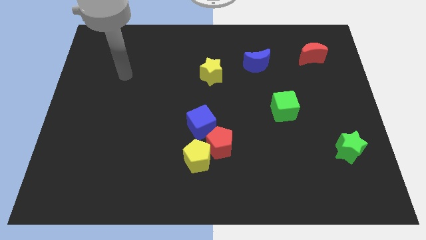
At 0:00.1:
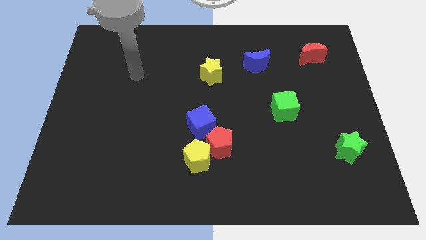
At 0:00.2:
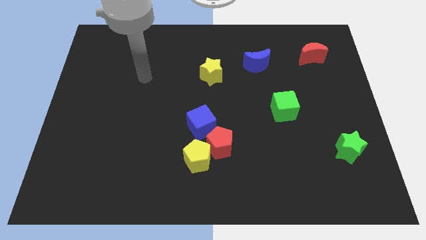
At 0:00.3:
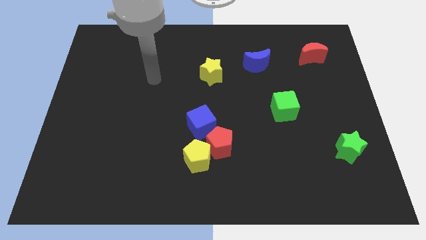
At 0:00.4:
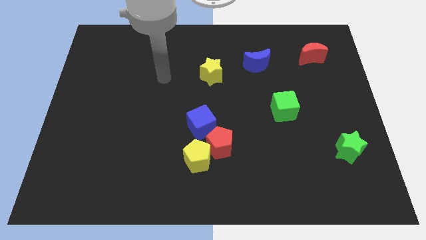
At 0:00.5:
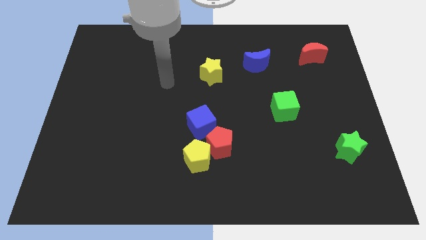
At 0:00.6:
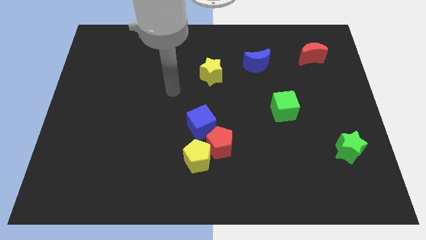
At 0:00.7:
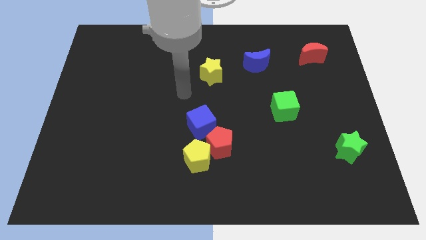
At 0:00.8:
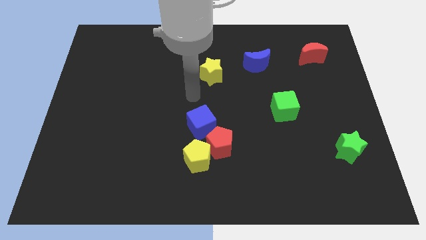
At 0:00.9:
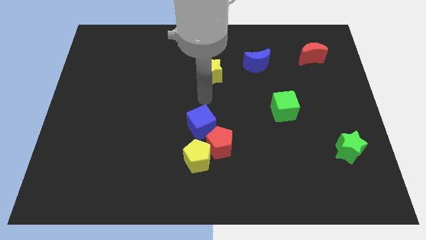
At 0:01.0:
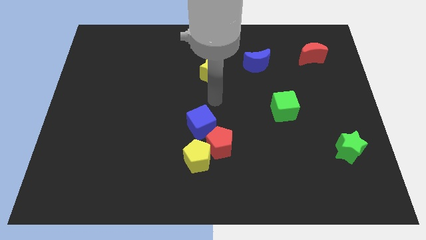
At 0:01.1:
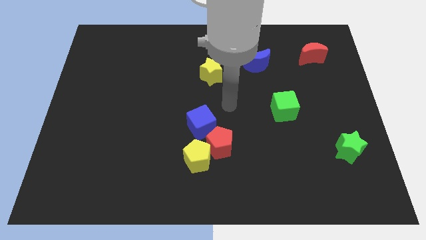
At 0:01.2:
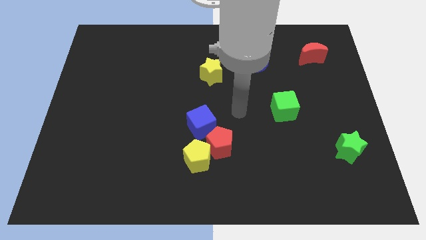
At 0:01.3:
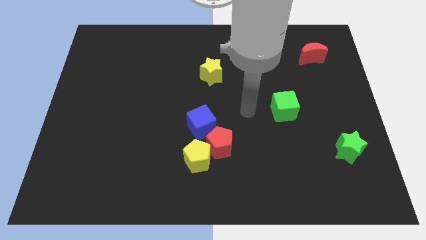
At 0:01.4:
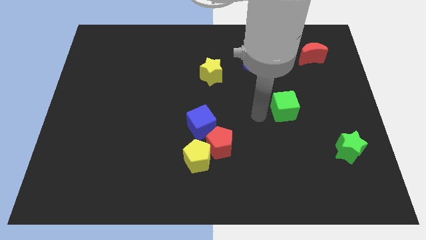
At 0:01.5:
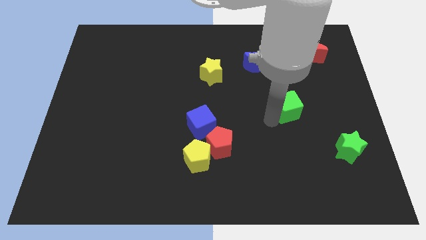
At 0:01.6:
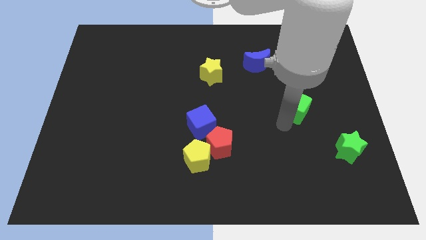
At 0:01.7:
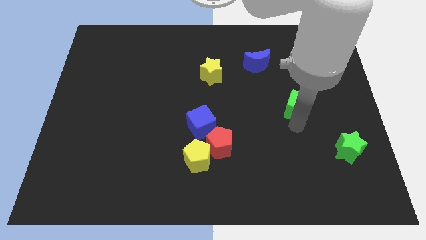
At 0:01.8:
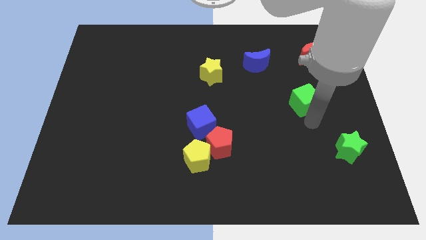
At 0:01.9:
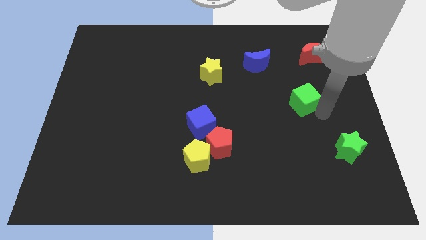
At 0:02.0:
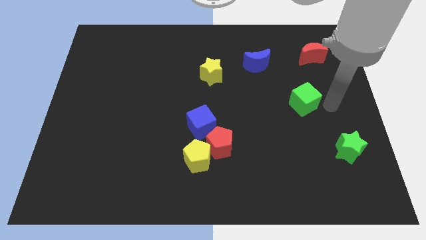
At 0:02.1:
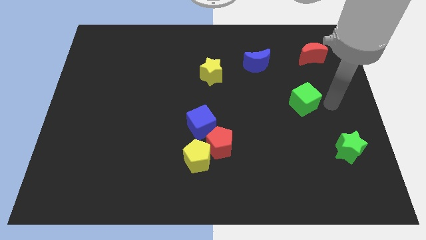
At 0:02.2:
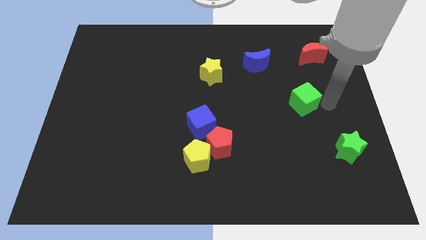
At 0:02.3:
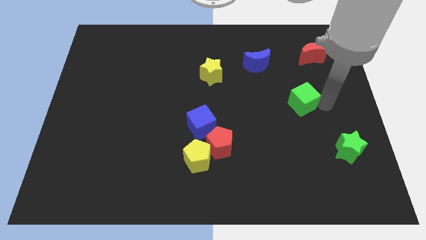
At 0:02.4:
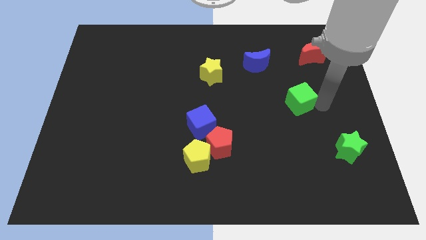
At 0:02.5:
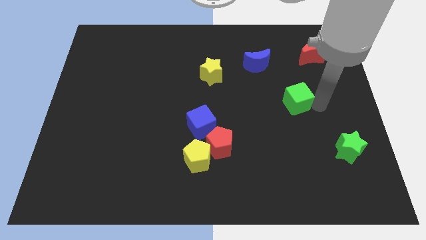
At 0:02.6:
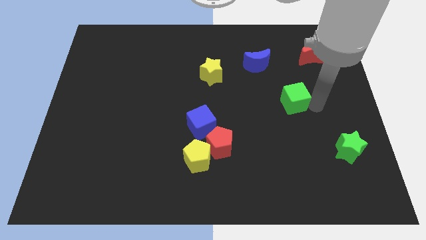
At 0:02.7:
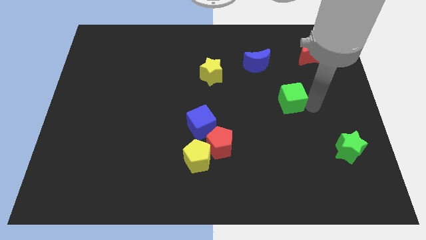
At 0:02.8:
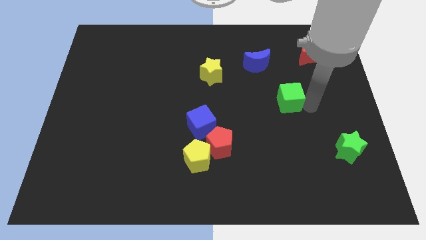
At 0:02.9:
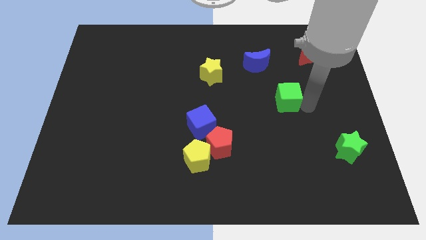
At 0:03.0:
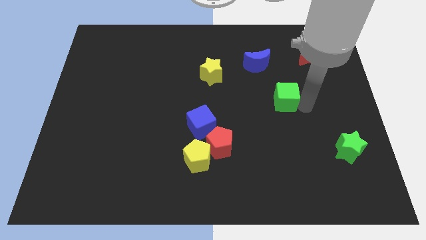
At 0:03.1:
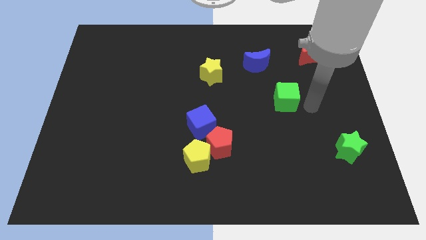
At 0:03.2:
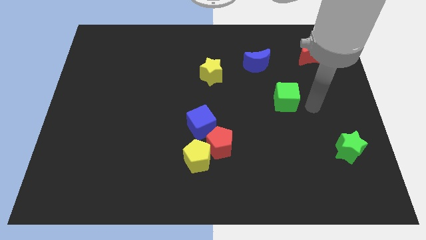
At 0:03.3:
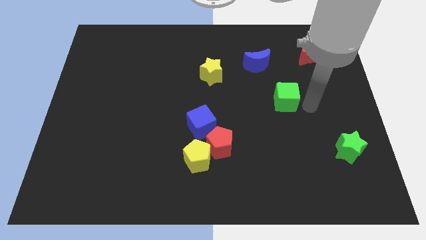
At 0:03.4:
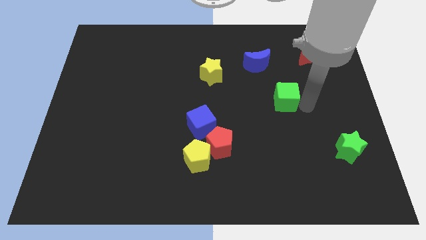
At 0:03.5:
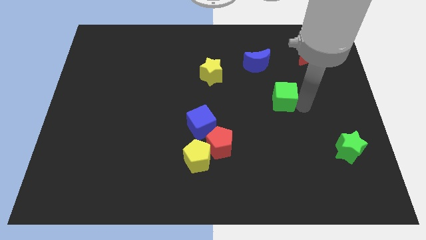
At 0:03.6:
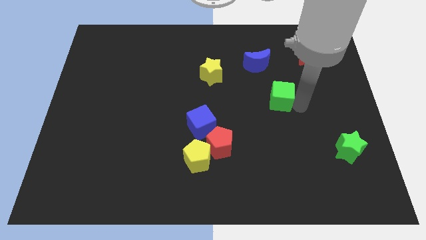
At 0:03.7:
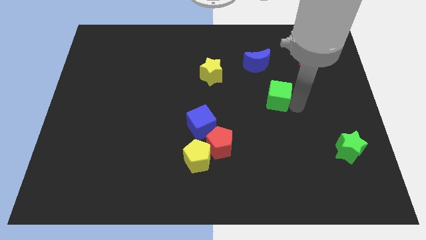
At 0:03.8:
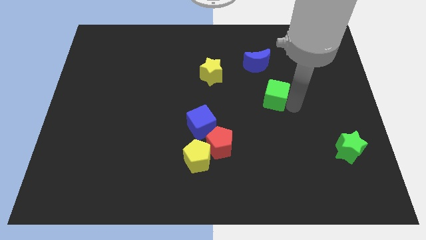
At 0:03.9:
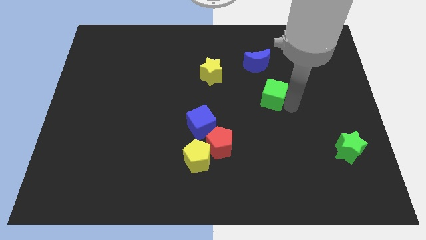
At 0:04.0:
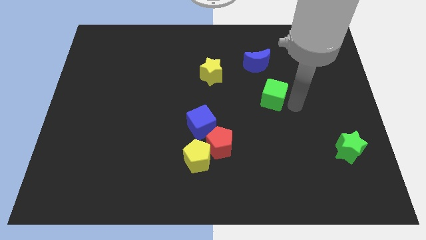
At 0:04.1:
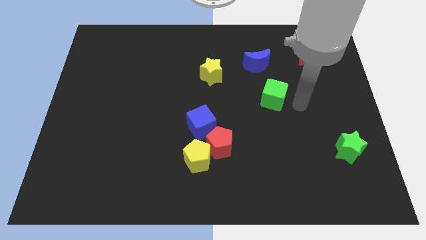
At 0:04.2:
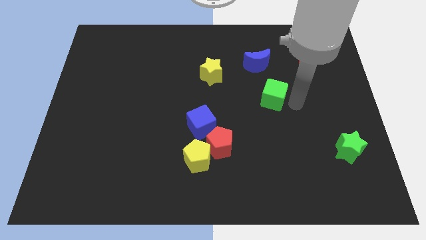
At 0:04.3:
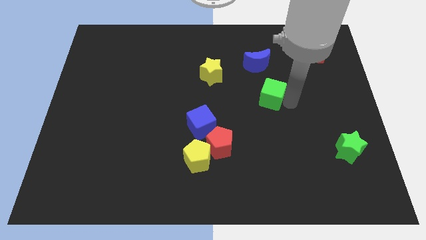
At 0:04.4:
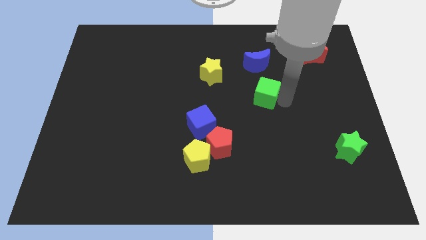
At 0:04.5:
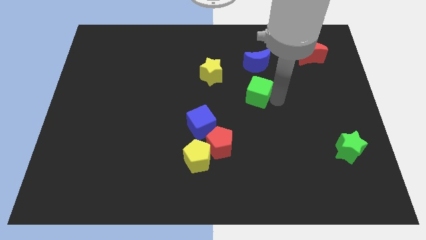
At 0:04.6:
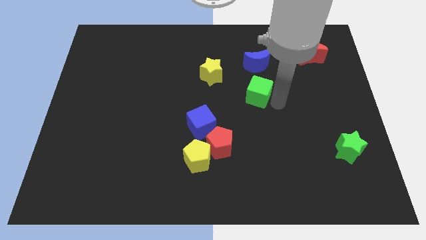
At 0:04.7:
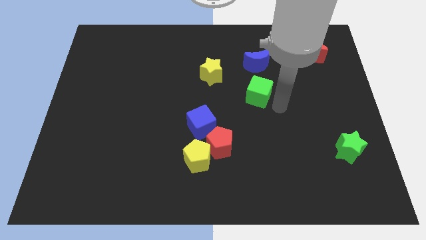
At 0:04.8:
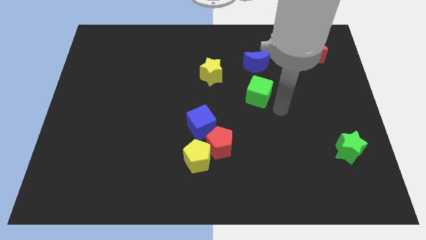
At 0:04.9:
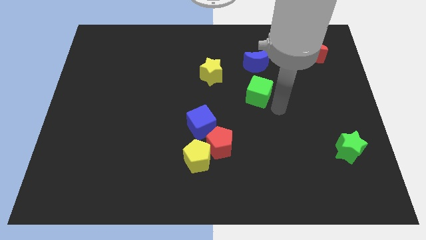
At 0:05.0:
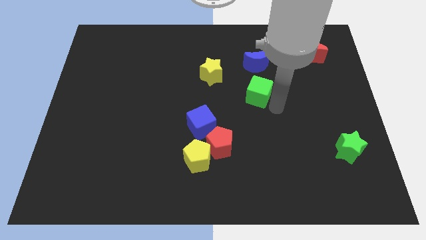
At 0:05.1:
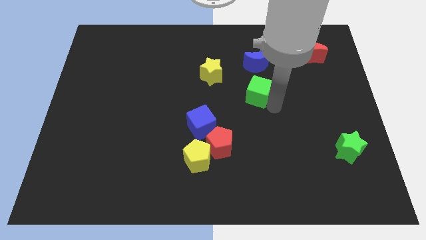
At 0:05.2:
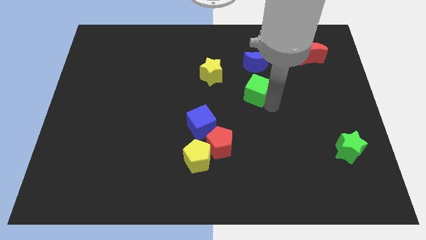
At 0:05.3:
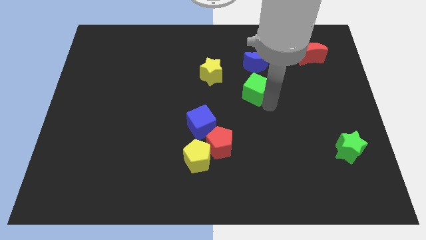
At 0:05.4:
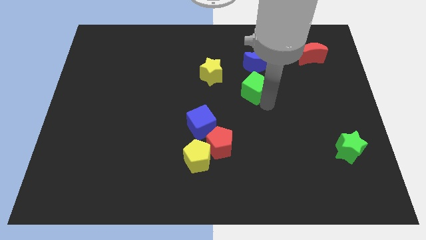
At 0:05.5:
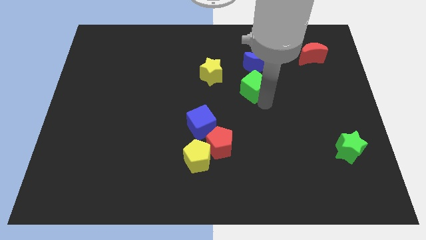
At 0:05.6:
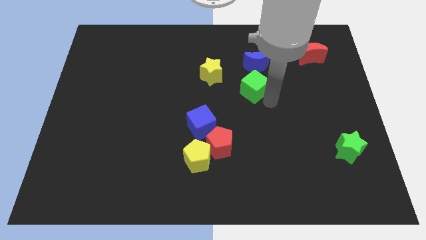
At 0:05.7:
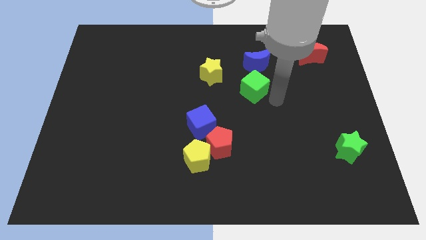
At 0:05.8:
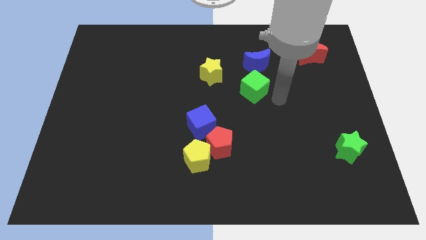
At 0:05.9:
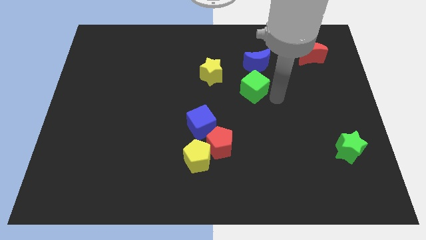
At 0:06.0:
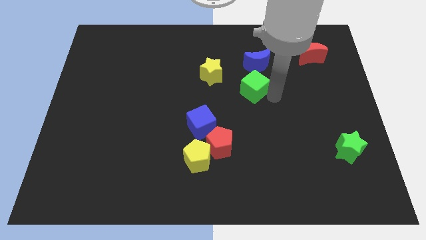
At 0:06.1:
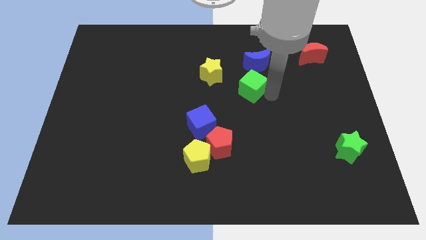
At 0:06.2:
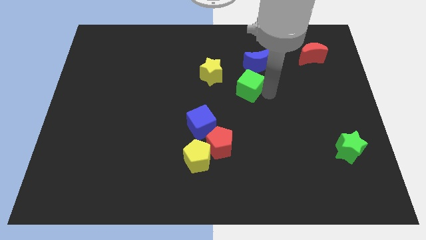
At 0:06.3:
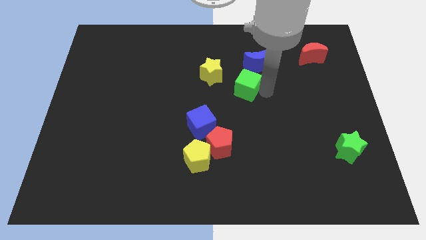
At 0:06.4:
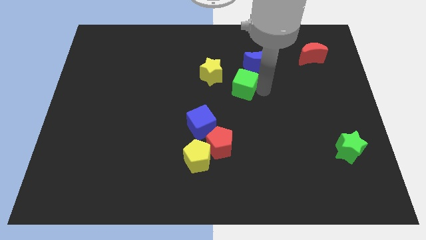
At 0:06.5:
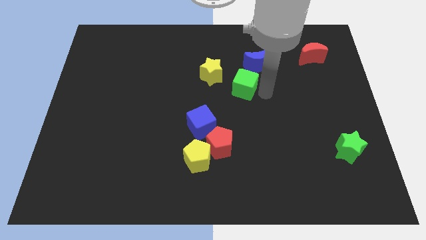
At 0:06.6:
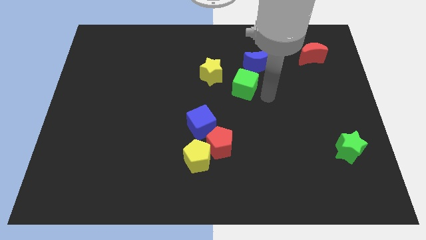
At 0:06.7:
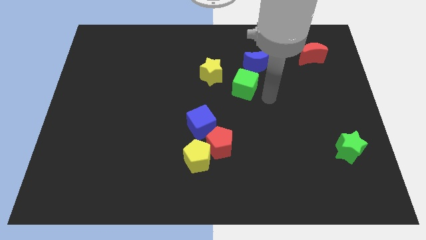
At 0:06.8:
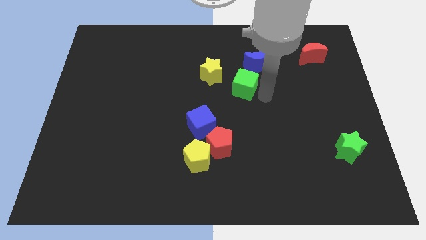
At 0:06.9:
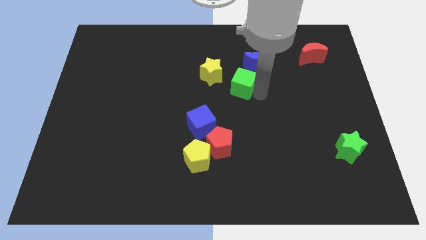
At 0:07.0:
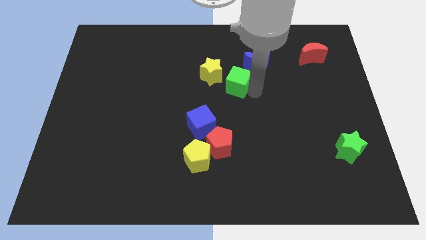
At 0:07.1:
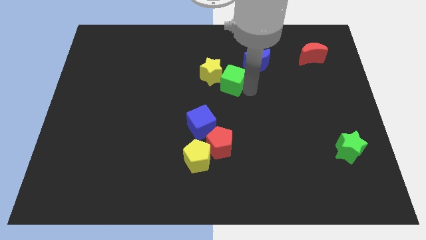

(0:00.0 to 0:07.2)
push the green cube close to the yellow star

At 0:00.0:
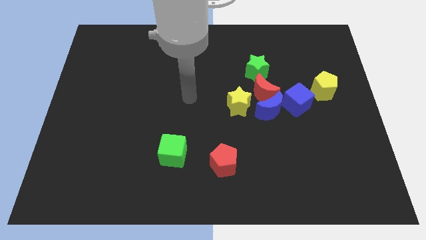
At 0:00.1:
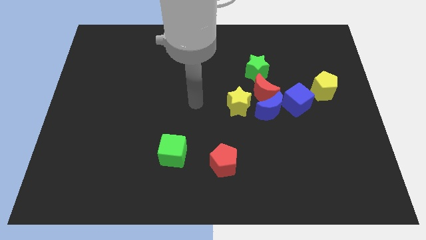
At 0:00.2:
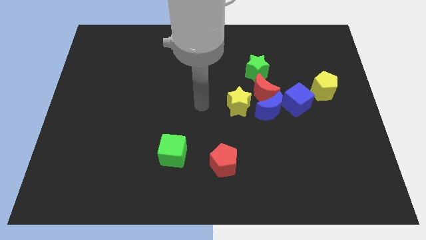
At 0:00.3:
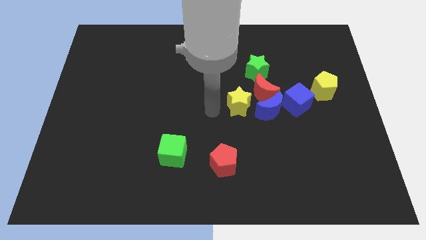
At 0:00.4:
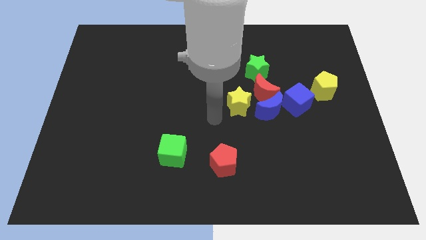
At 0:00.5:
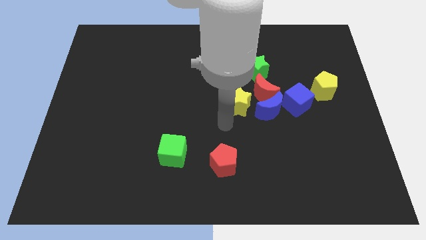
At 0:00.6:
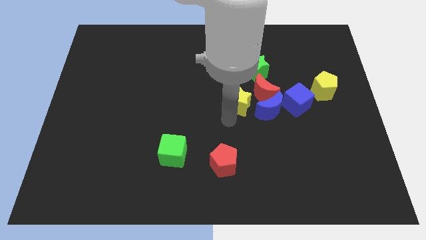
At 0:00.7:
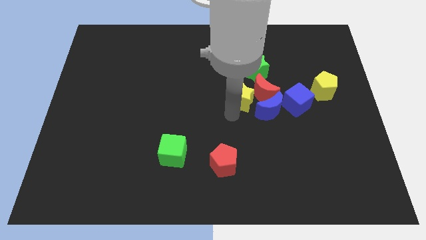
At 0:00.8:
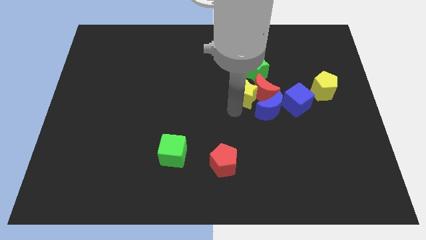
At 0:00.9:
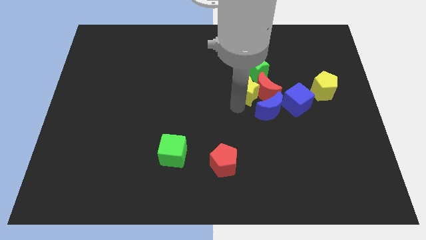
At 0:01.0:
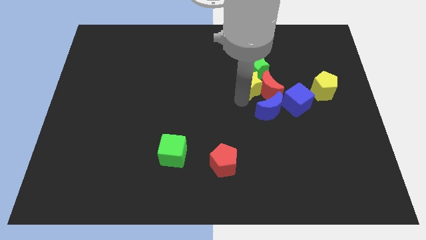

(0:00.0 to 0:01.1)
push the yellow star next to the green star
